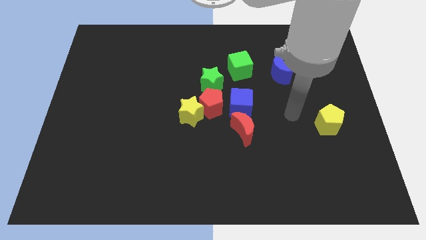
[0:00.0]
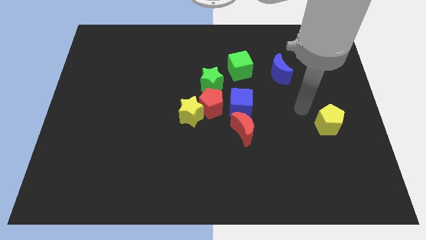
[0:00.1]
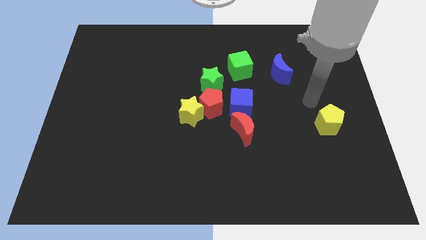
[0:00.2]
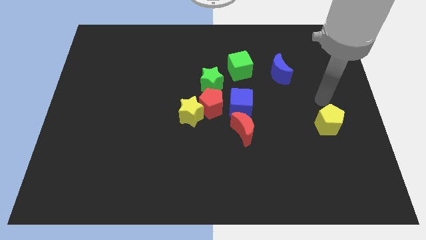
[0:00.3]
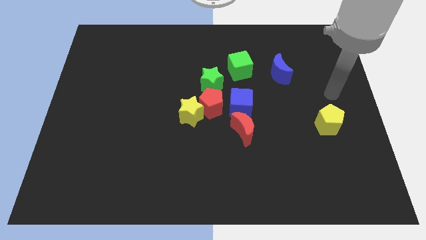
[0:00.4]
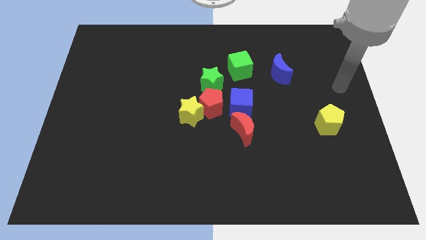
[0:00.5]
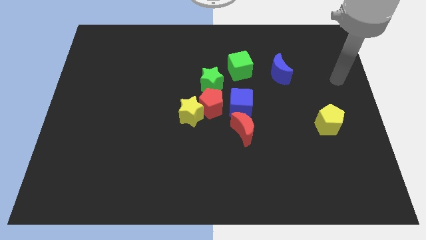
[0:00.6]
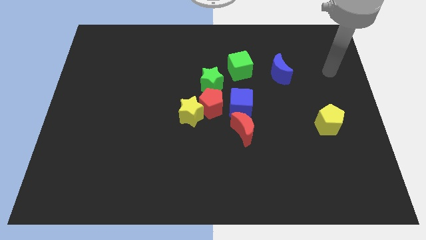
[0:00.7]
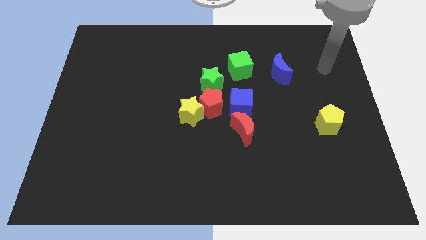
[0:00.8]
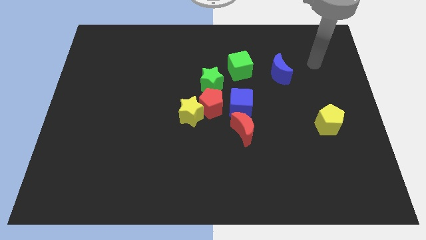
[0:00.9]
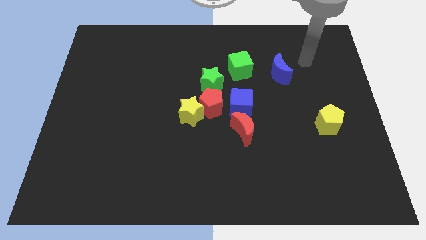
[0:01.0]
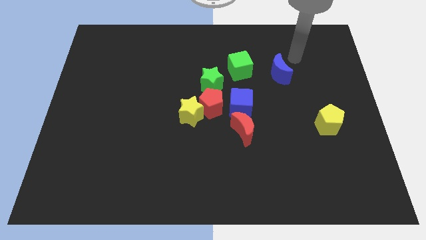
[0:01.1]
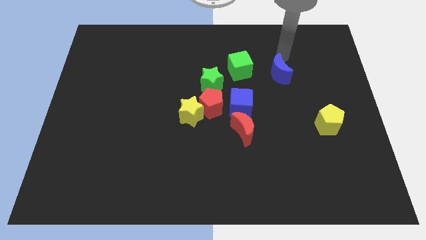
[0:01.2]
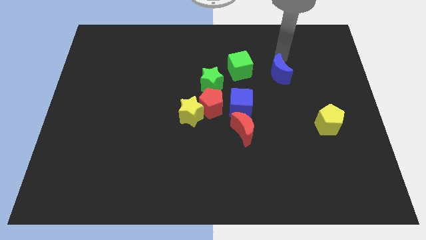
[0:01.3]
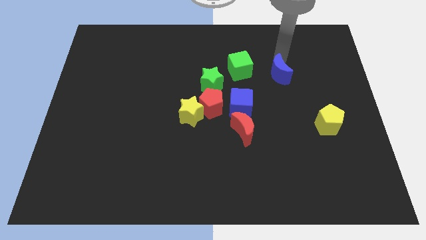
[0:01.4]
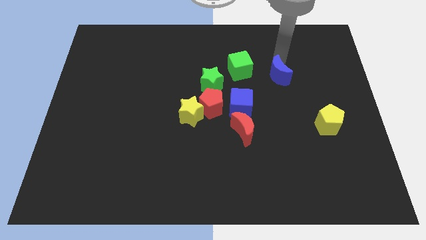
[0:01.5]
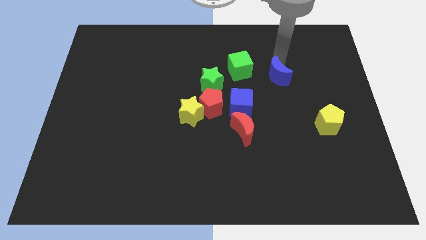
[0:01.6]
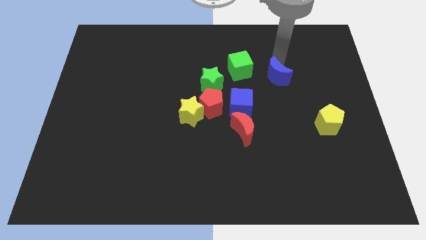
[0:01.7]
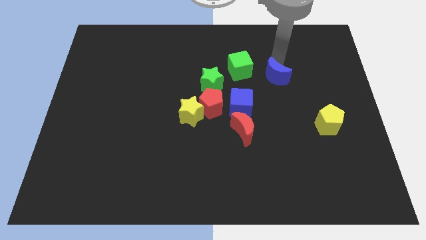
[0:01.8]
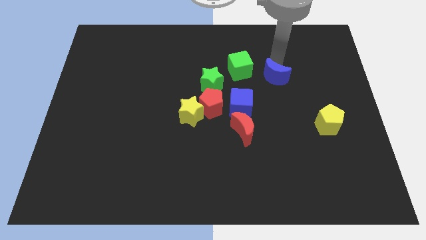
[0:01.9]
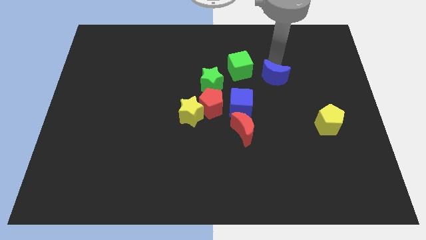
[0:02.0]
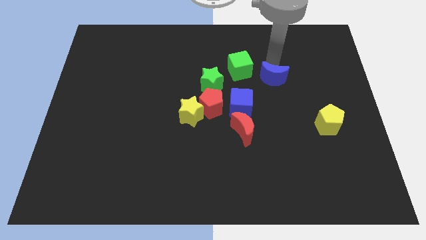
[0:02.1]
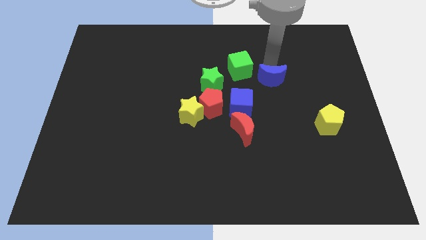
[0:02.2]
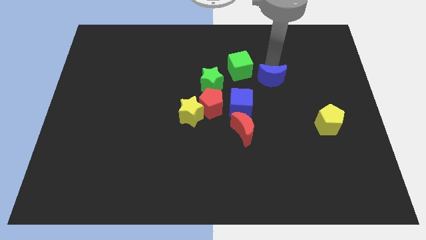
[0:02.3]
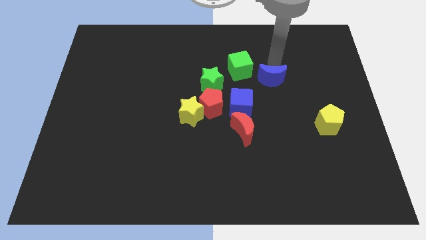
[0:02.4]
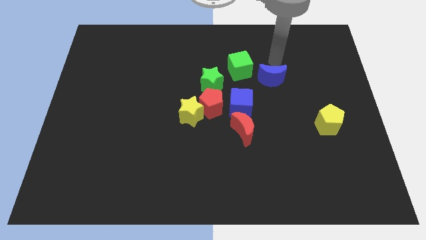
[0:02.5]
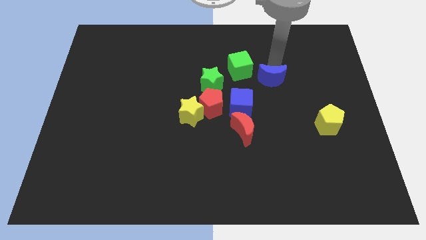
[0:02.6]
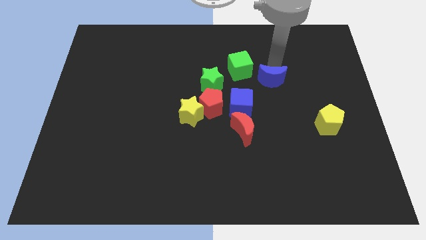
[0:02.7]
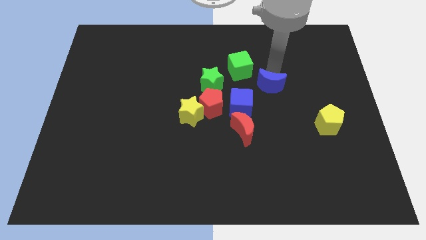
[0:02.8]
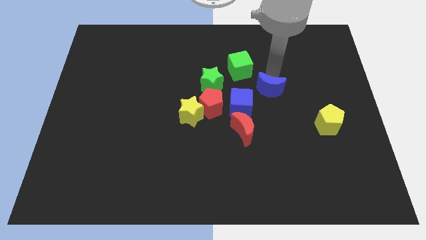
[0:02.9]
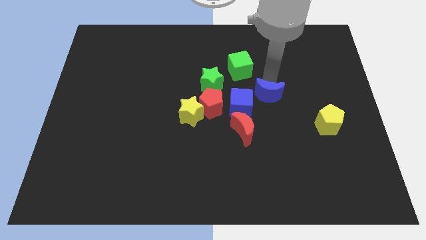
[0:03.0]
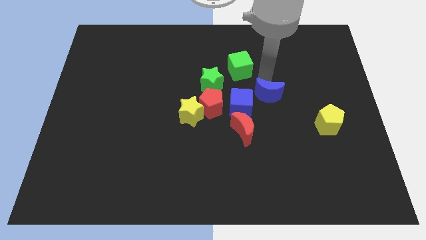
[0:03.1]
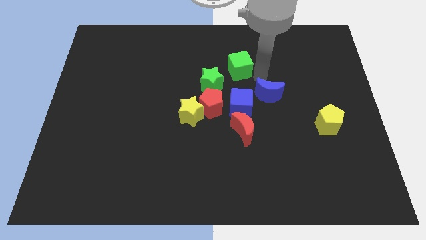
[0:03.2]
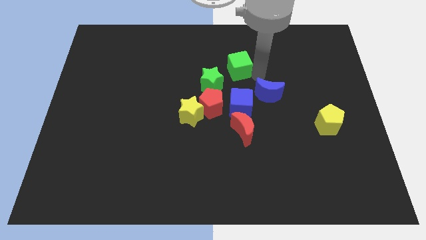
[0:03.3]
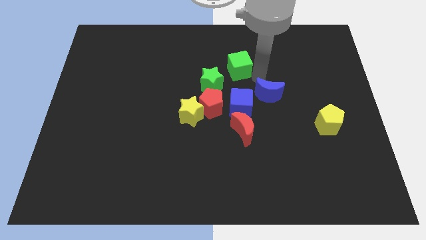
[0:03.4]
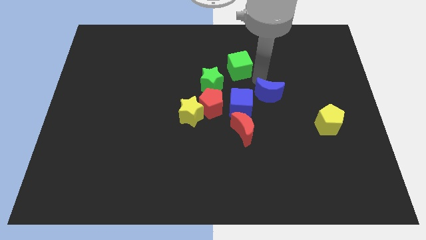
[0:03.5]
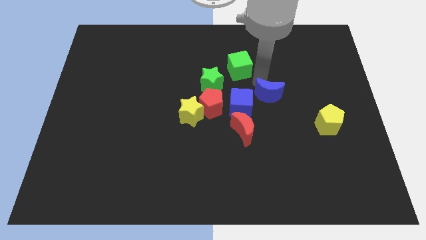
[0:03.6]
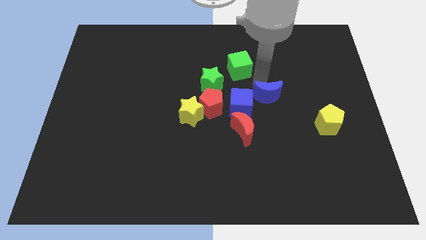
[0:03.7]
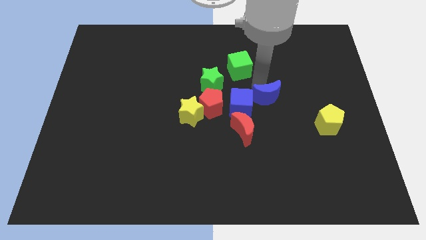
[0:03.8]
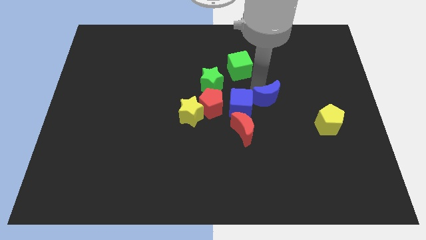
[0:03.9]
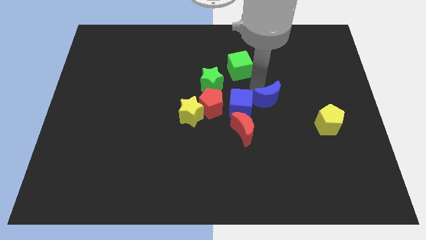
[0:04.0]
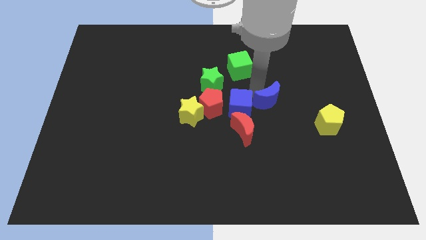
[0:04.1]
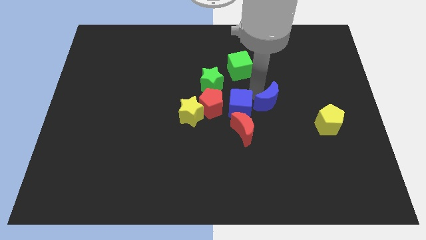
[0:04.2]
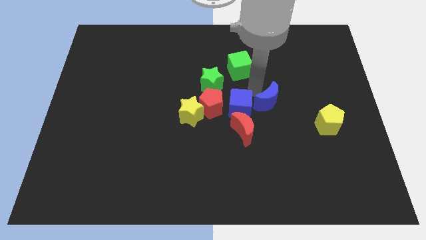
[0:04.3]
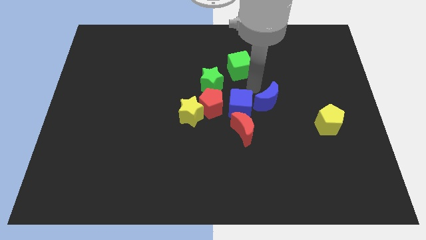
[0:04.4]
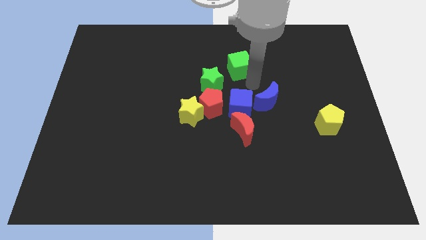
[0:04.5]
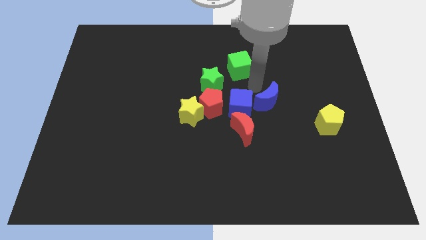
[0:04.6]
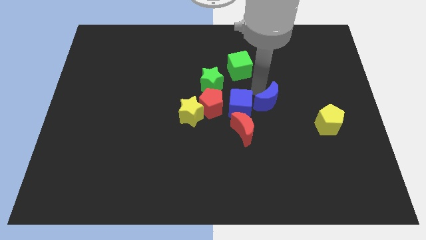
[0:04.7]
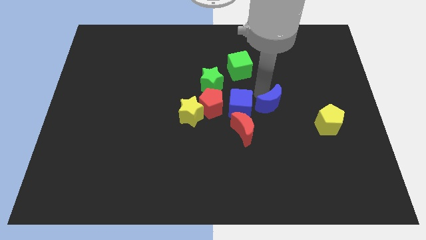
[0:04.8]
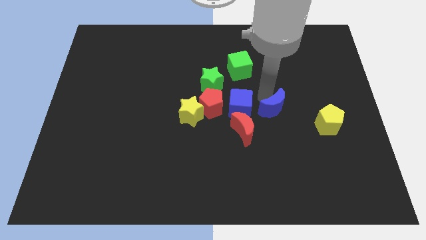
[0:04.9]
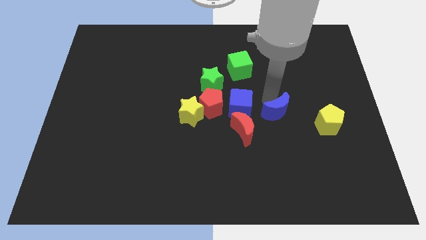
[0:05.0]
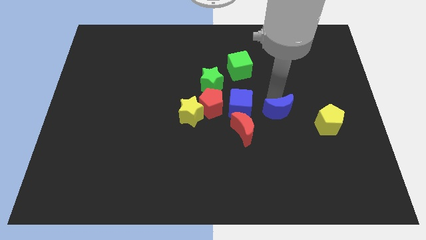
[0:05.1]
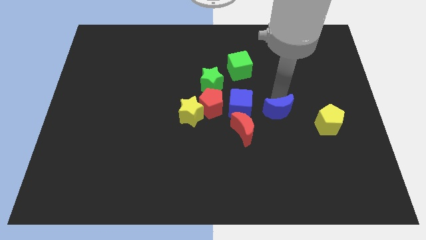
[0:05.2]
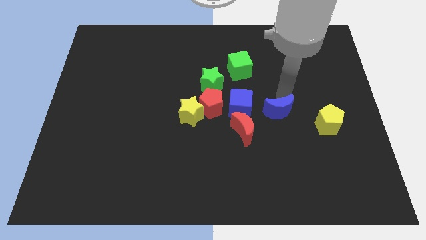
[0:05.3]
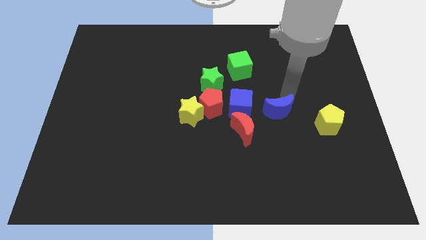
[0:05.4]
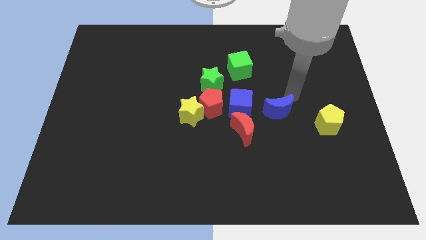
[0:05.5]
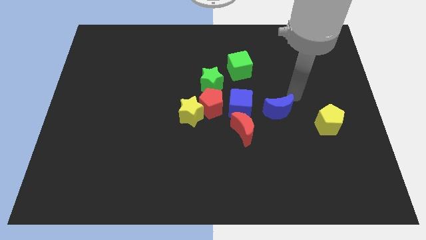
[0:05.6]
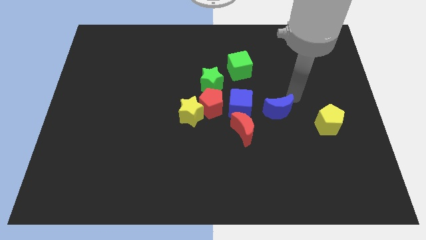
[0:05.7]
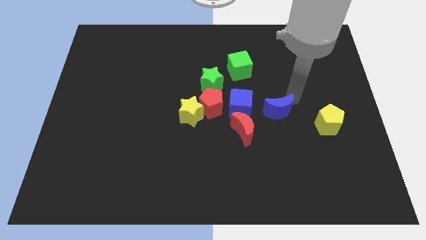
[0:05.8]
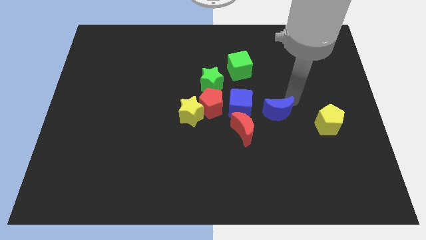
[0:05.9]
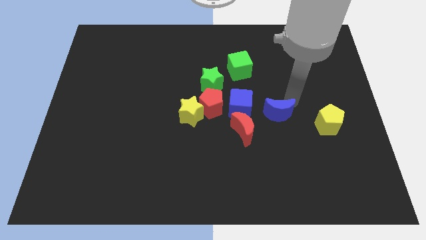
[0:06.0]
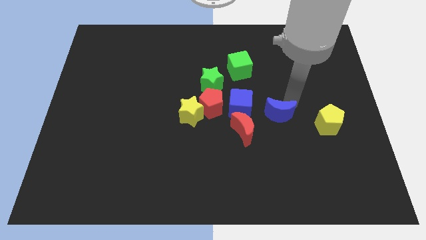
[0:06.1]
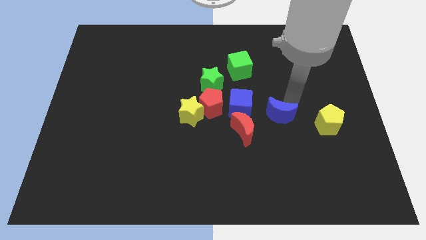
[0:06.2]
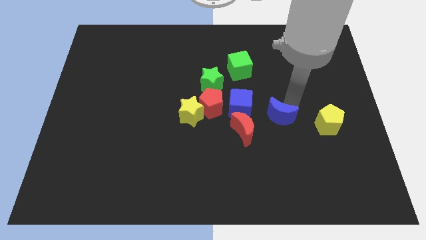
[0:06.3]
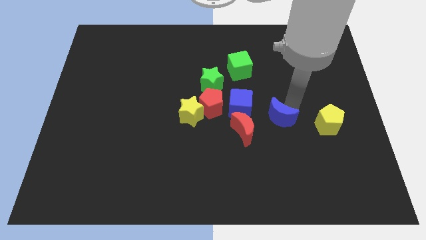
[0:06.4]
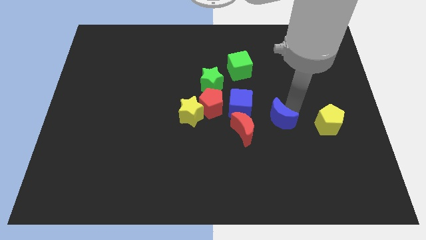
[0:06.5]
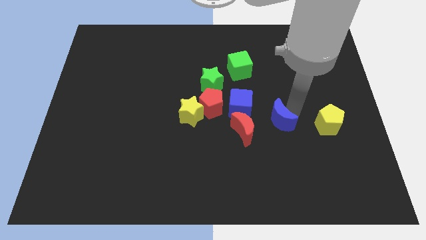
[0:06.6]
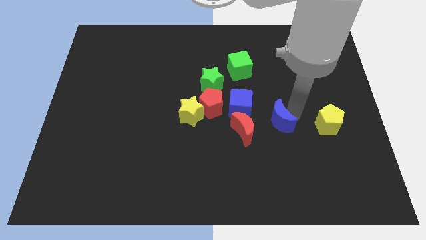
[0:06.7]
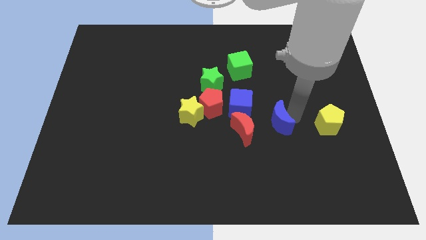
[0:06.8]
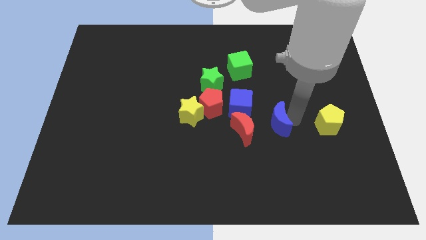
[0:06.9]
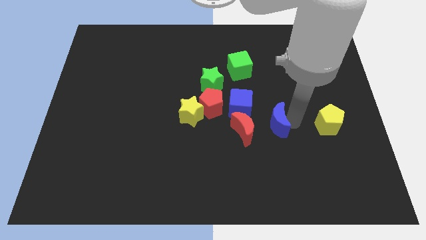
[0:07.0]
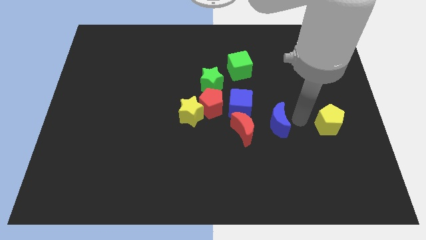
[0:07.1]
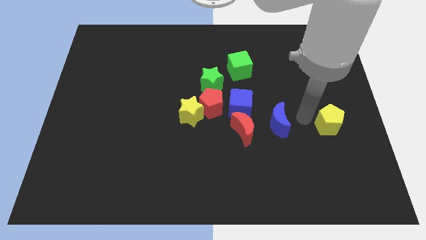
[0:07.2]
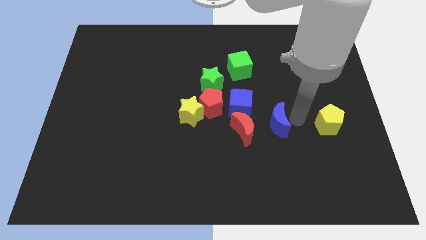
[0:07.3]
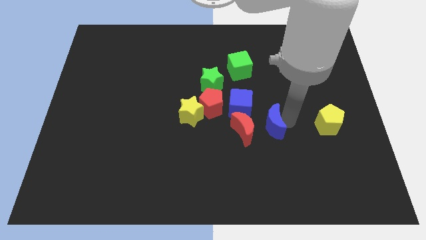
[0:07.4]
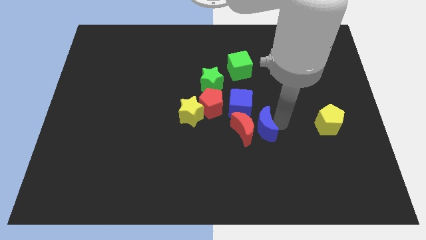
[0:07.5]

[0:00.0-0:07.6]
push the blue moon next to the red moon
